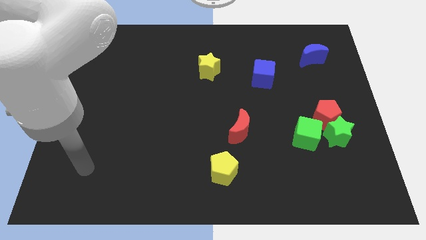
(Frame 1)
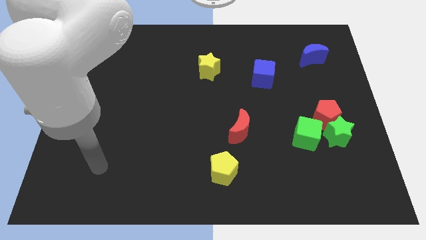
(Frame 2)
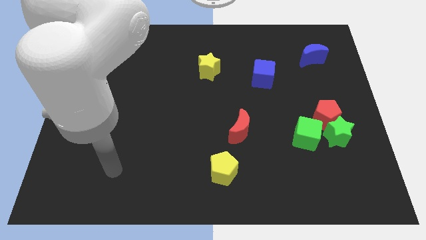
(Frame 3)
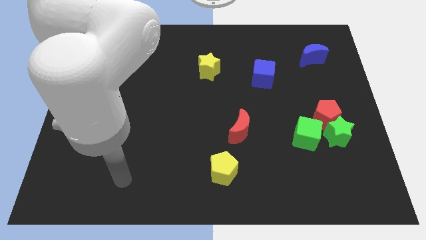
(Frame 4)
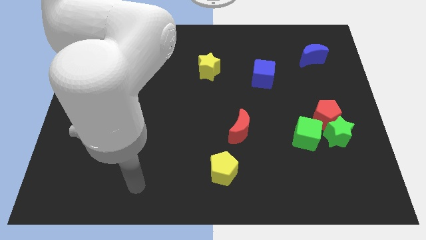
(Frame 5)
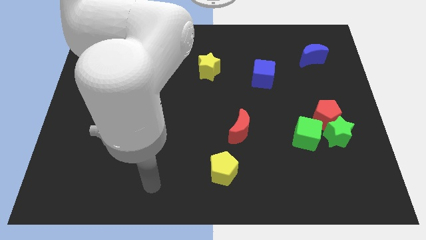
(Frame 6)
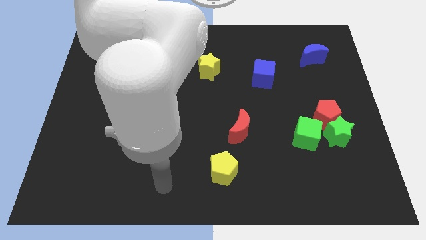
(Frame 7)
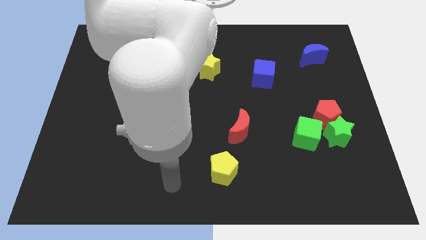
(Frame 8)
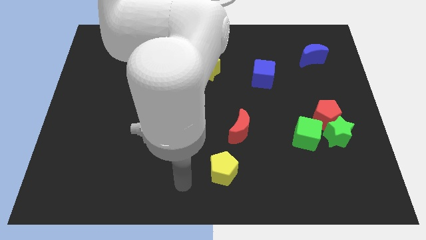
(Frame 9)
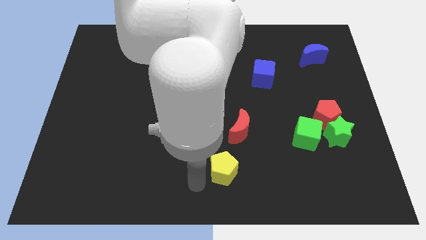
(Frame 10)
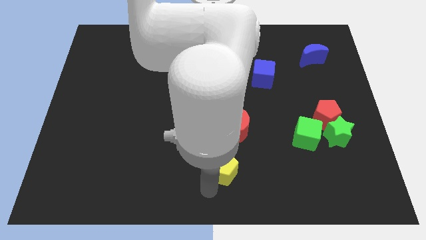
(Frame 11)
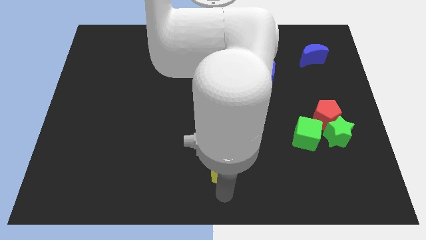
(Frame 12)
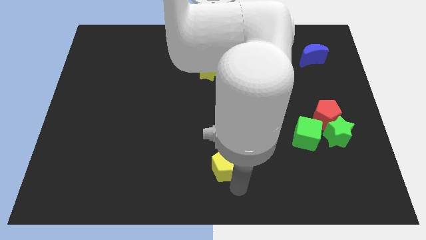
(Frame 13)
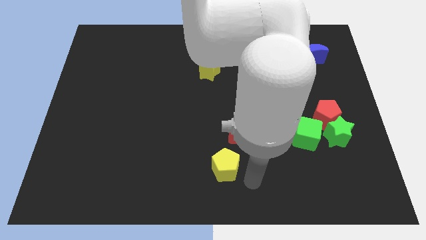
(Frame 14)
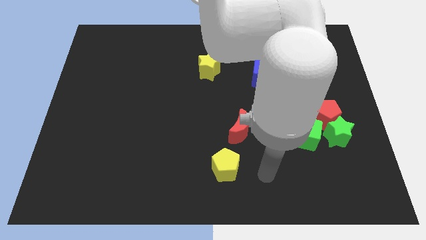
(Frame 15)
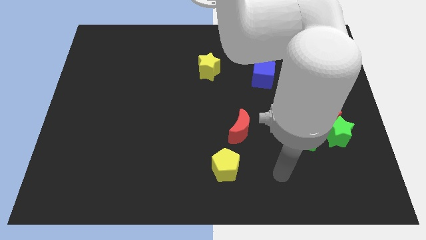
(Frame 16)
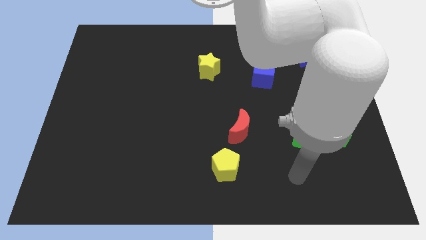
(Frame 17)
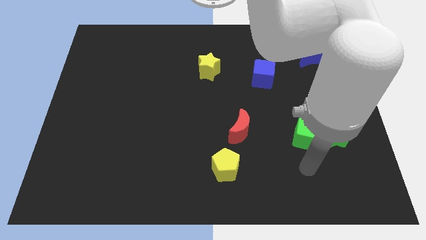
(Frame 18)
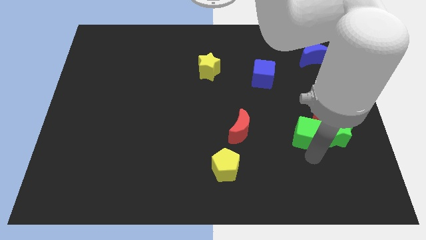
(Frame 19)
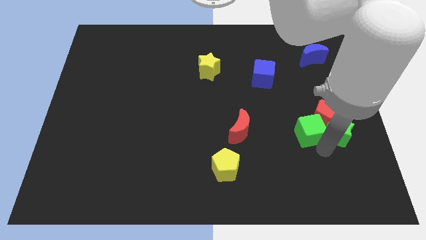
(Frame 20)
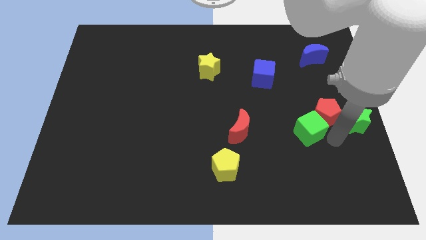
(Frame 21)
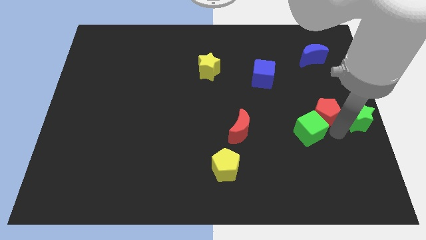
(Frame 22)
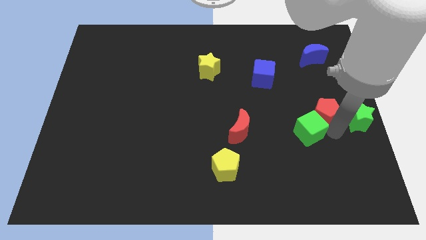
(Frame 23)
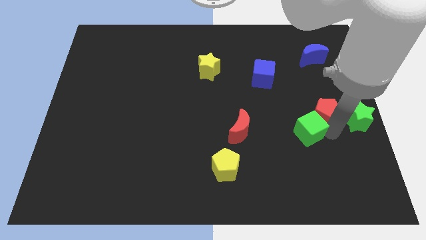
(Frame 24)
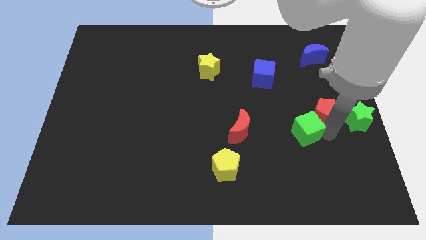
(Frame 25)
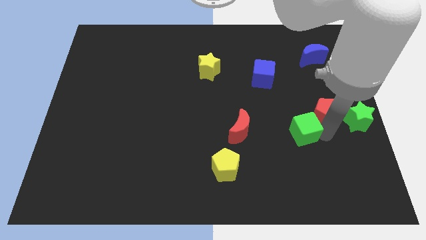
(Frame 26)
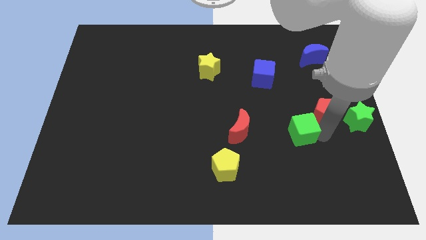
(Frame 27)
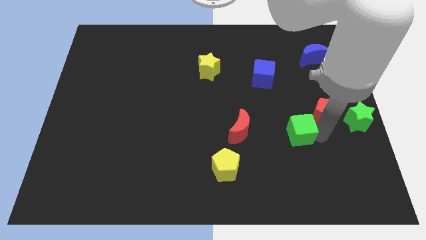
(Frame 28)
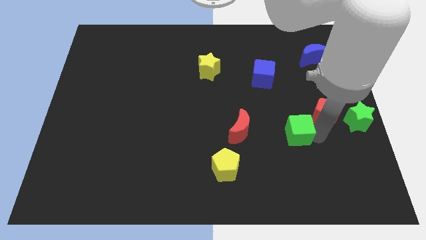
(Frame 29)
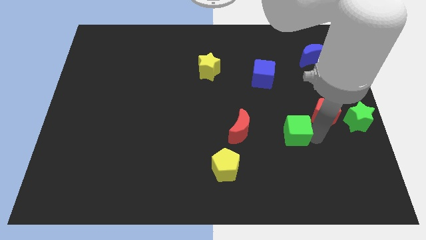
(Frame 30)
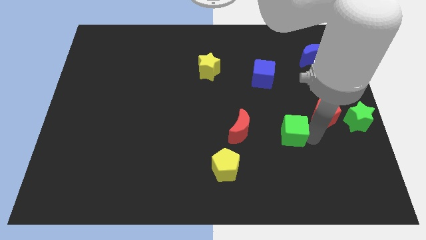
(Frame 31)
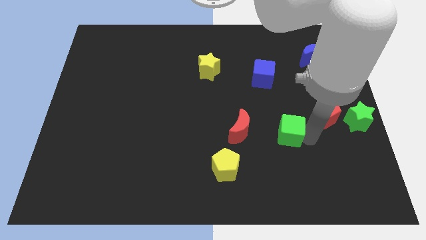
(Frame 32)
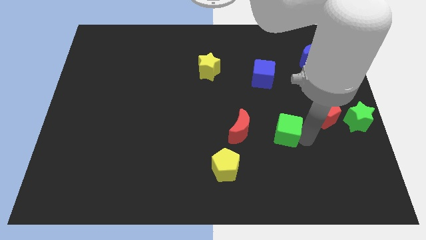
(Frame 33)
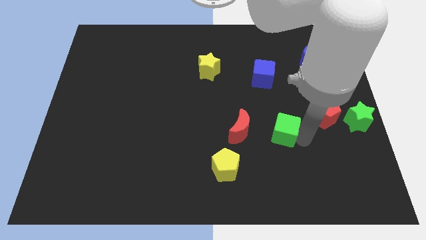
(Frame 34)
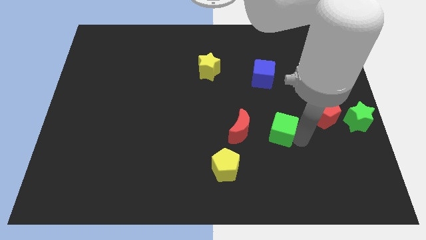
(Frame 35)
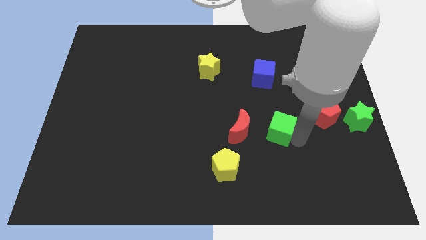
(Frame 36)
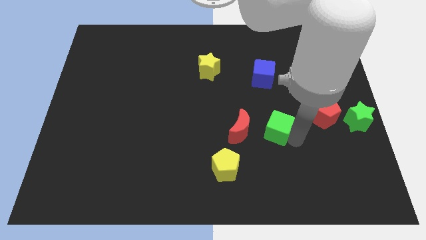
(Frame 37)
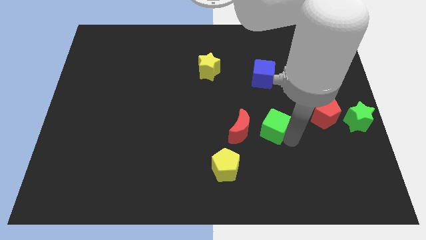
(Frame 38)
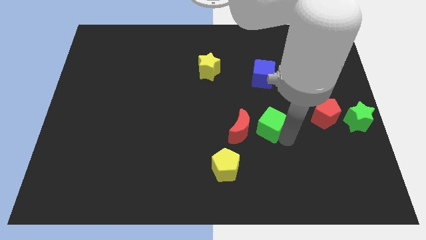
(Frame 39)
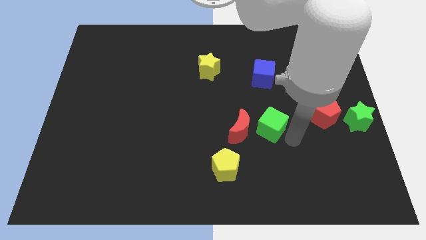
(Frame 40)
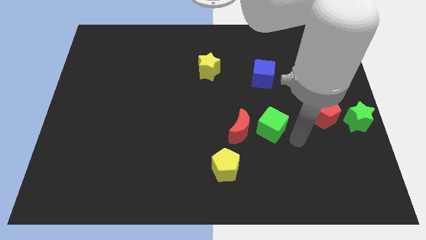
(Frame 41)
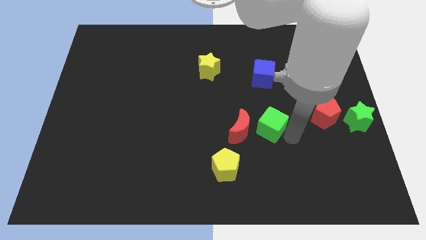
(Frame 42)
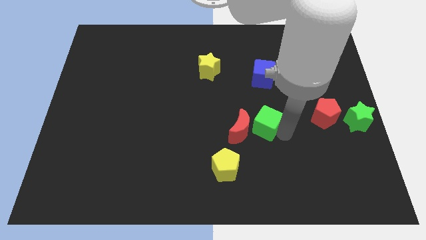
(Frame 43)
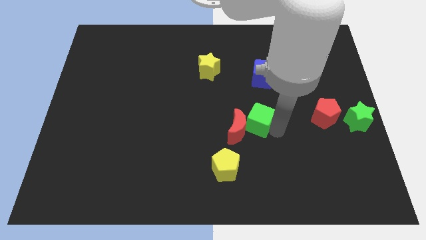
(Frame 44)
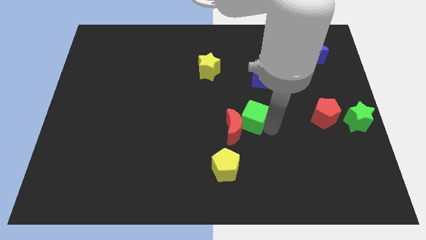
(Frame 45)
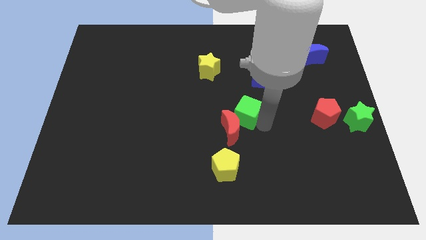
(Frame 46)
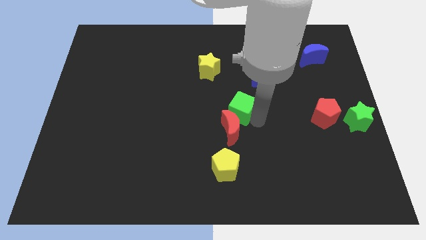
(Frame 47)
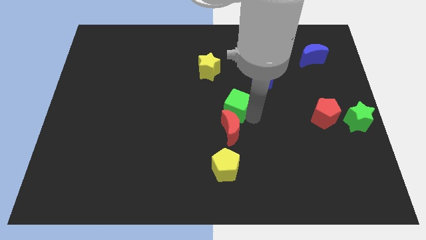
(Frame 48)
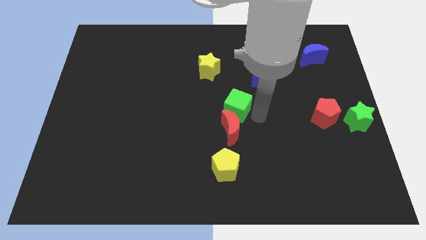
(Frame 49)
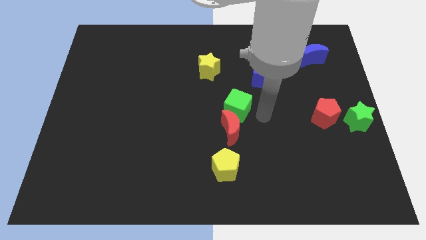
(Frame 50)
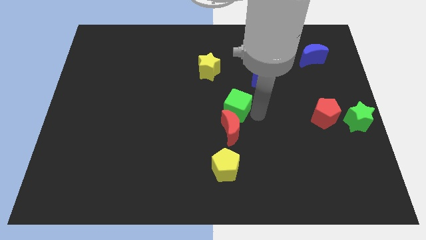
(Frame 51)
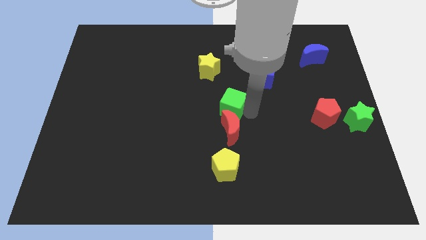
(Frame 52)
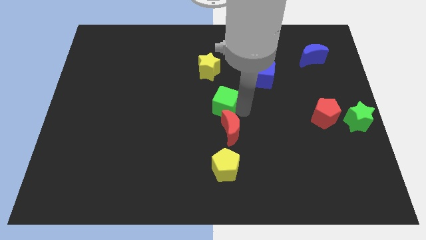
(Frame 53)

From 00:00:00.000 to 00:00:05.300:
move the green cube to the bottom side of the yellow star

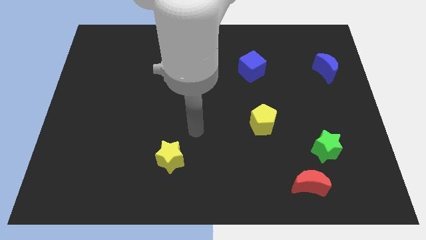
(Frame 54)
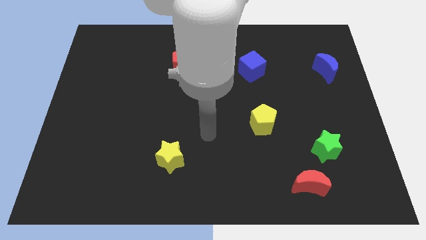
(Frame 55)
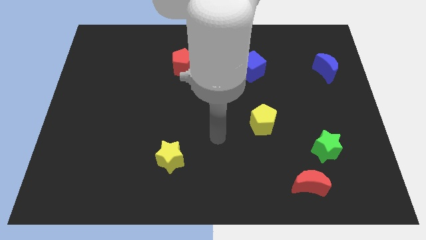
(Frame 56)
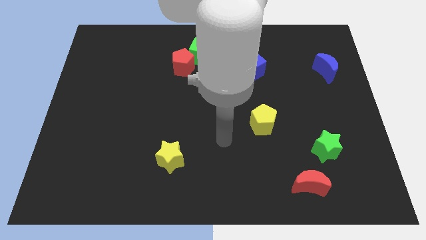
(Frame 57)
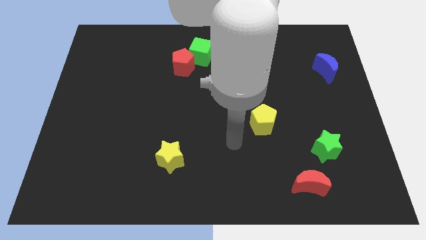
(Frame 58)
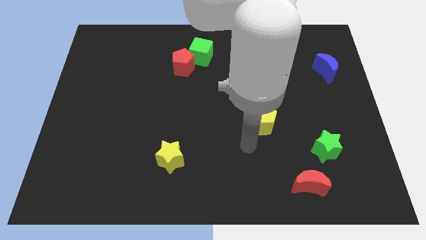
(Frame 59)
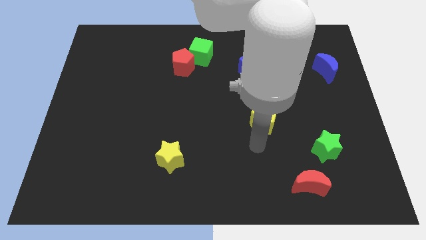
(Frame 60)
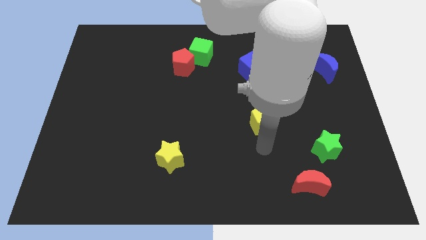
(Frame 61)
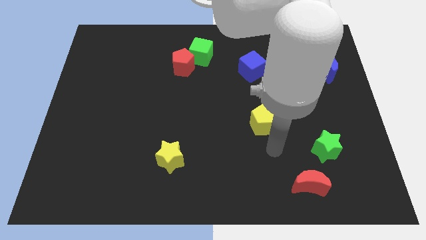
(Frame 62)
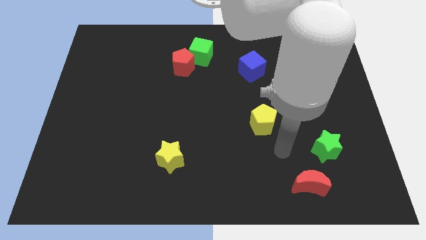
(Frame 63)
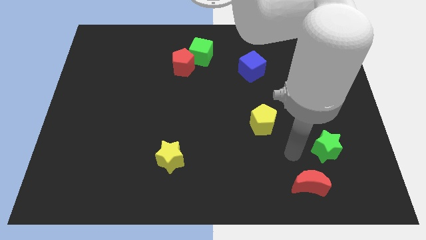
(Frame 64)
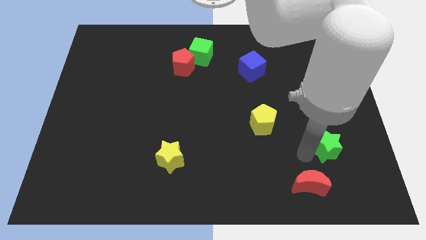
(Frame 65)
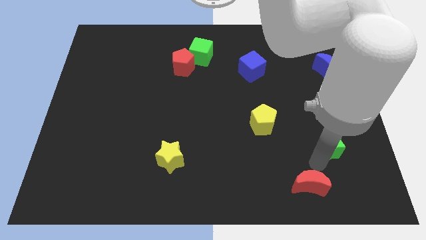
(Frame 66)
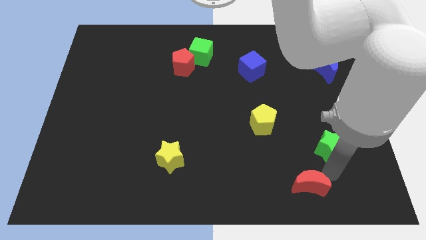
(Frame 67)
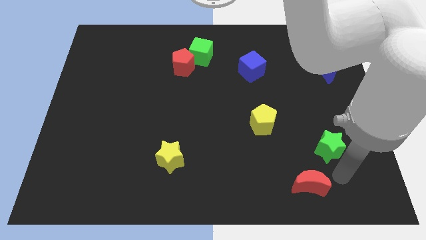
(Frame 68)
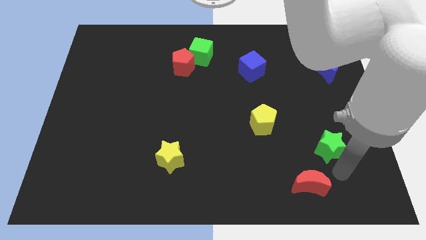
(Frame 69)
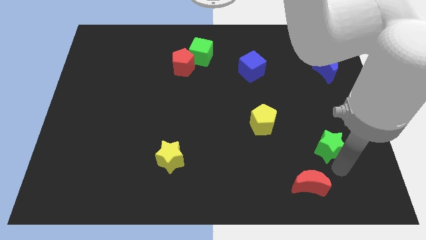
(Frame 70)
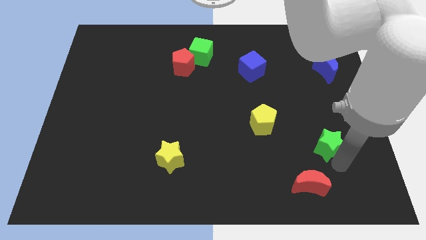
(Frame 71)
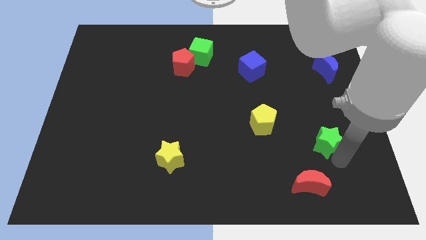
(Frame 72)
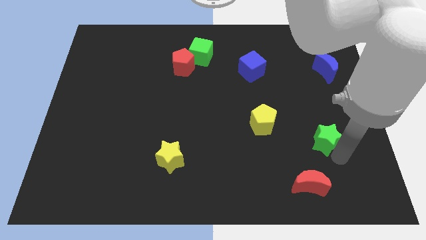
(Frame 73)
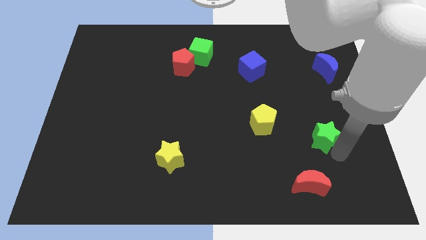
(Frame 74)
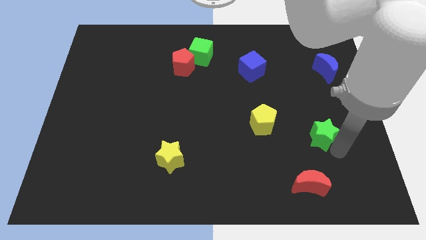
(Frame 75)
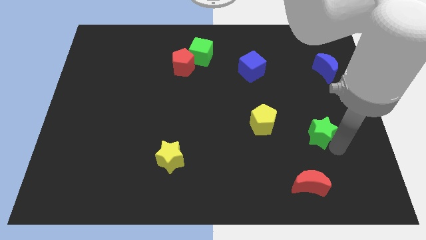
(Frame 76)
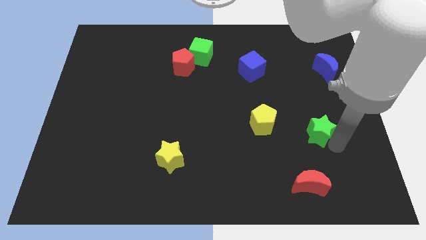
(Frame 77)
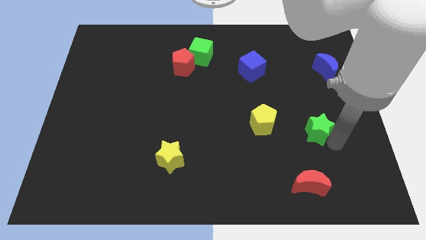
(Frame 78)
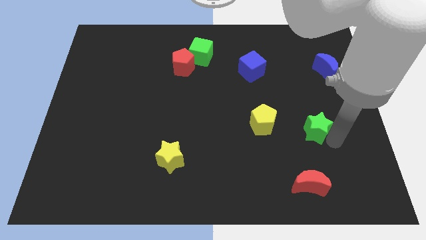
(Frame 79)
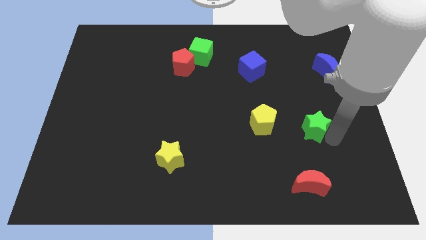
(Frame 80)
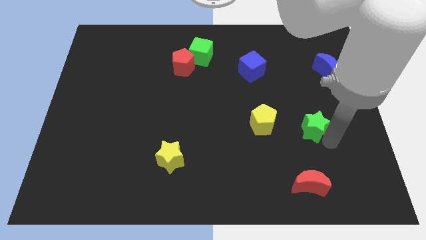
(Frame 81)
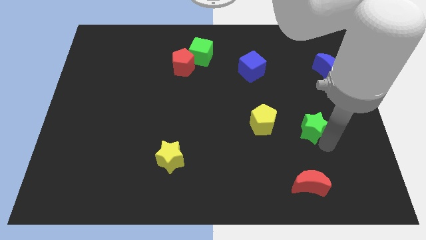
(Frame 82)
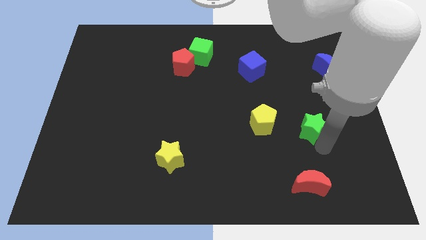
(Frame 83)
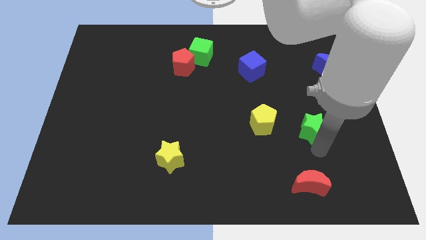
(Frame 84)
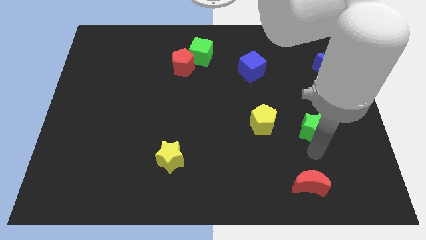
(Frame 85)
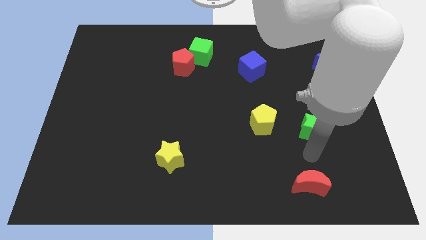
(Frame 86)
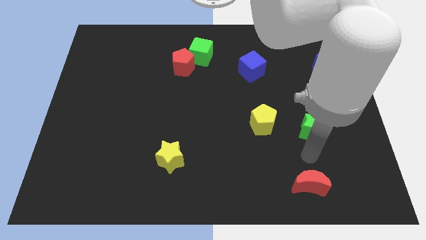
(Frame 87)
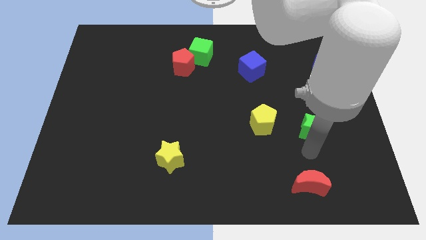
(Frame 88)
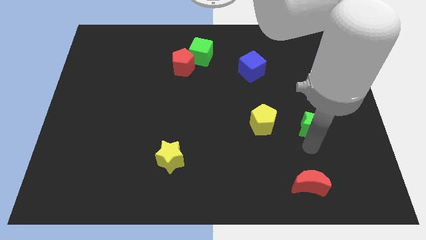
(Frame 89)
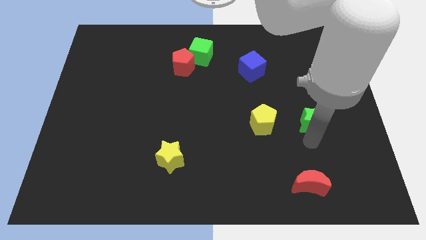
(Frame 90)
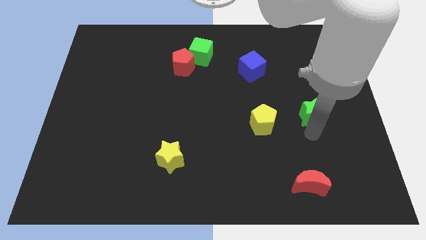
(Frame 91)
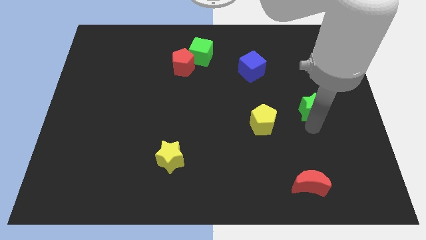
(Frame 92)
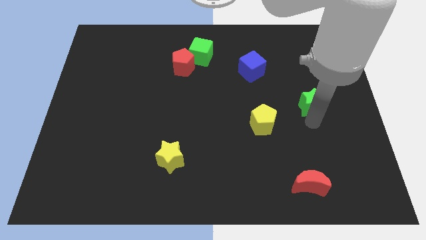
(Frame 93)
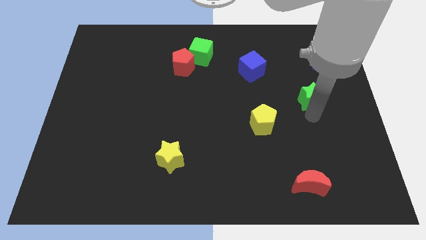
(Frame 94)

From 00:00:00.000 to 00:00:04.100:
push the green star to the bottom left side of the blue moon
